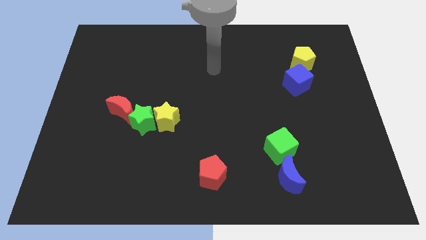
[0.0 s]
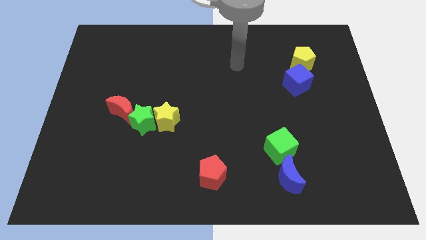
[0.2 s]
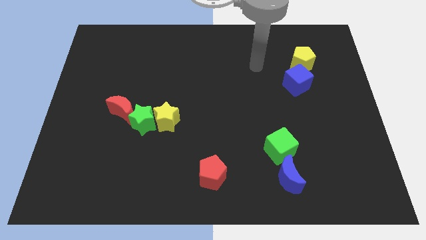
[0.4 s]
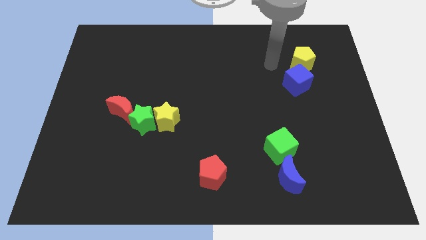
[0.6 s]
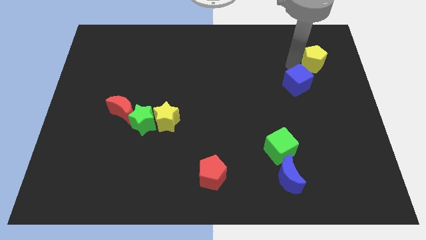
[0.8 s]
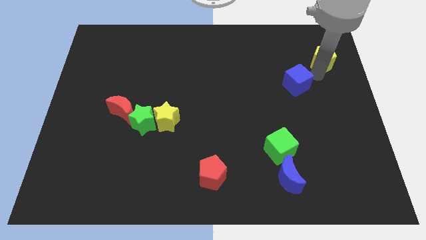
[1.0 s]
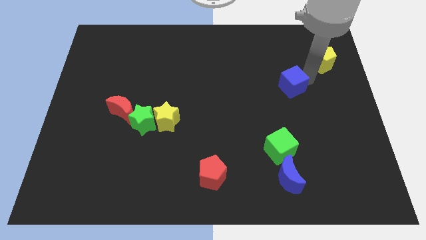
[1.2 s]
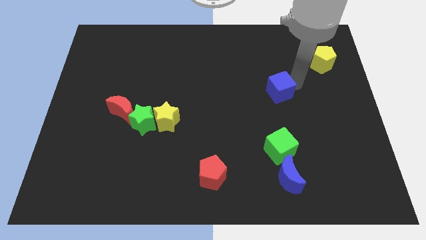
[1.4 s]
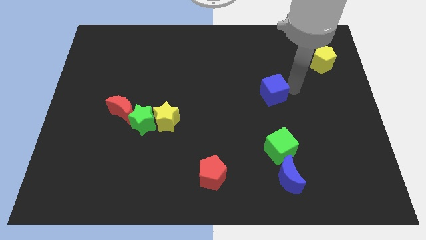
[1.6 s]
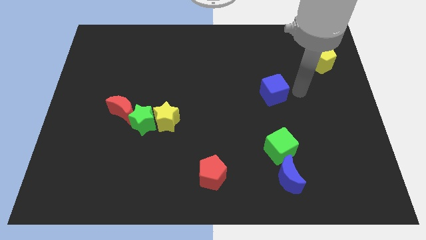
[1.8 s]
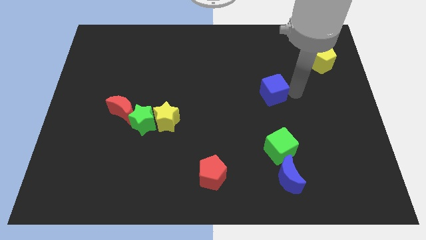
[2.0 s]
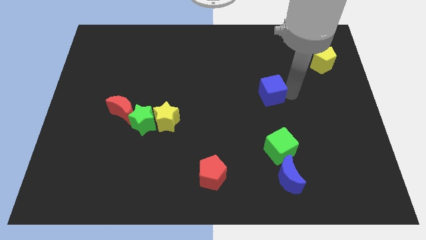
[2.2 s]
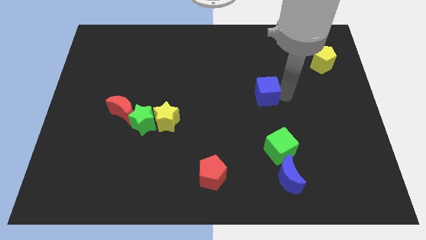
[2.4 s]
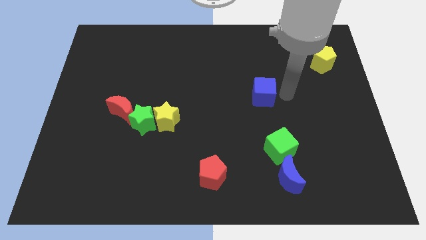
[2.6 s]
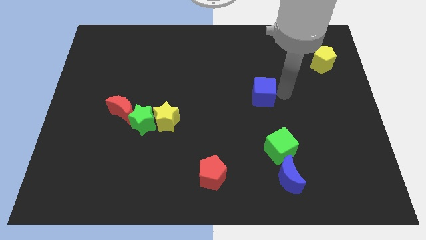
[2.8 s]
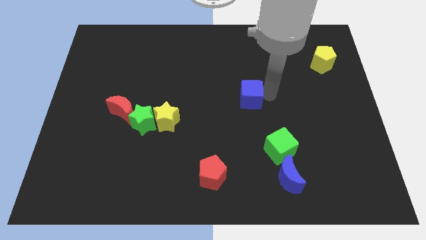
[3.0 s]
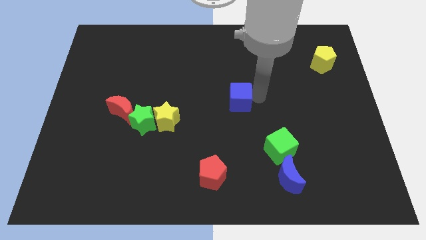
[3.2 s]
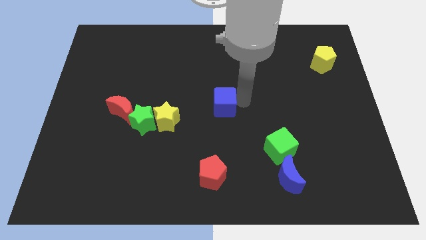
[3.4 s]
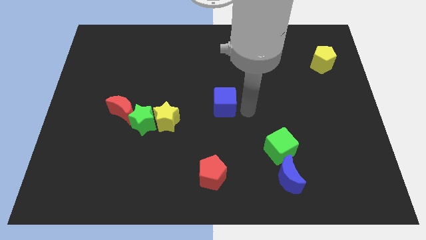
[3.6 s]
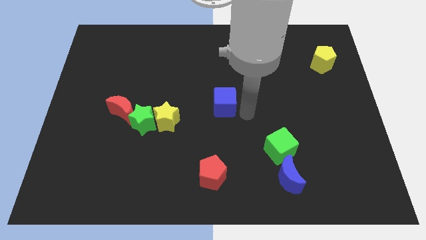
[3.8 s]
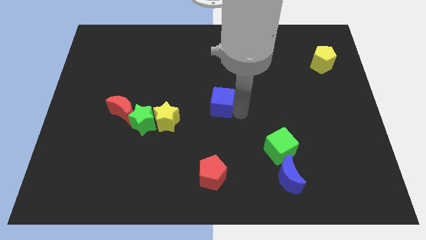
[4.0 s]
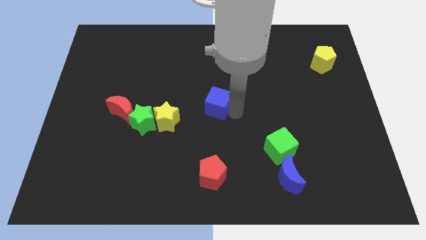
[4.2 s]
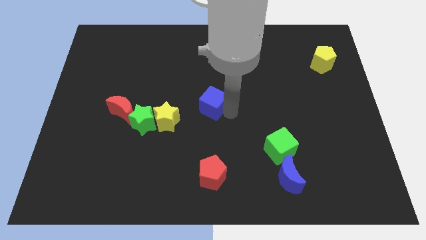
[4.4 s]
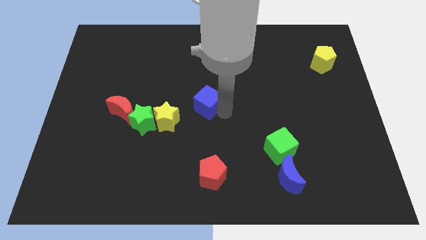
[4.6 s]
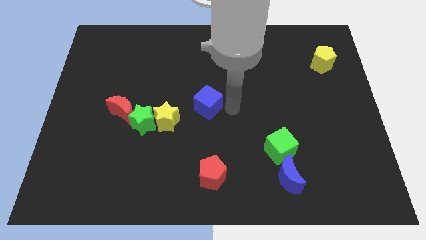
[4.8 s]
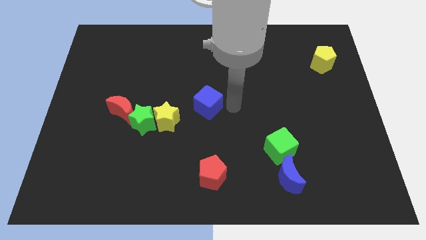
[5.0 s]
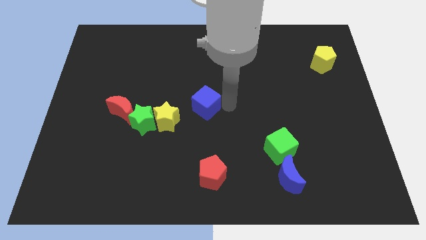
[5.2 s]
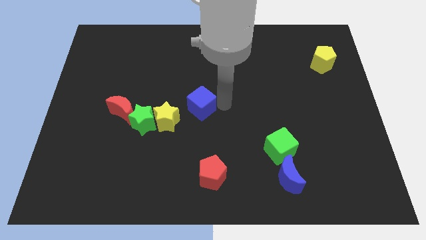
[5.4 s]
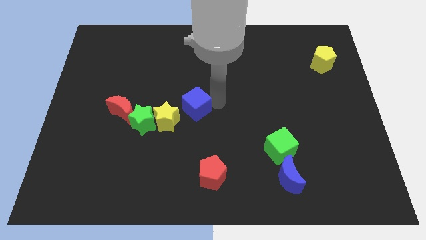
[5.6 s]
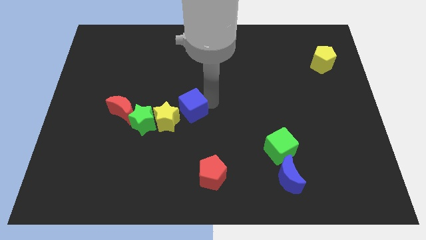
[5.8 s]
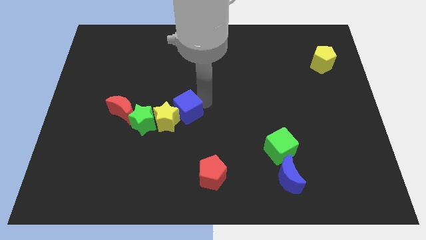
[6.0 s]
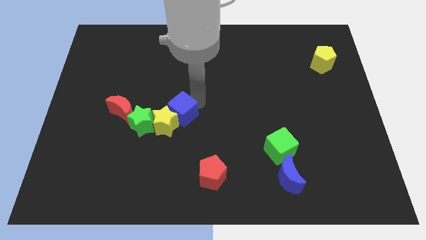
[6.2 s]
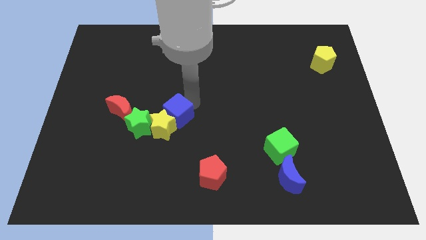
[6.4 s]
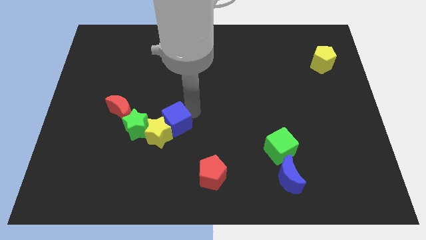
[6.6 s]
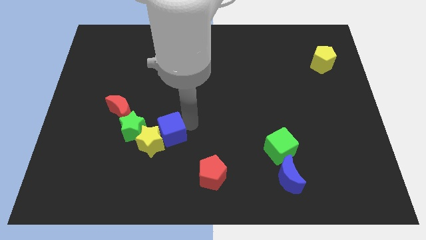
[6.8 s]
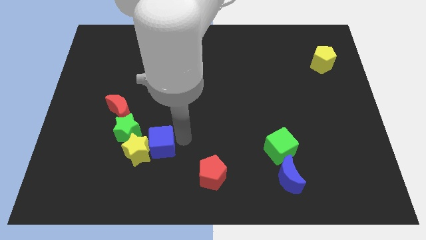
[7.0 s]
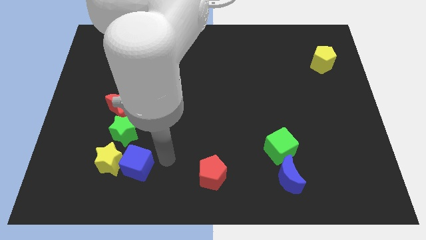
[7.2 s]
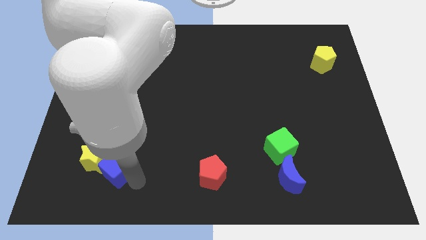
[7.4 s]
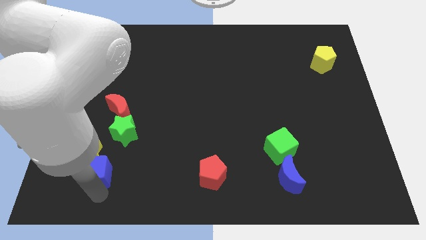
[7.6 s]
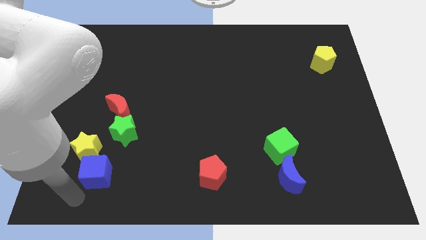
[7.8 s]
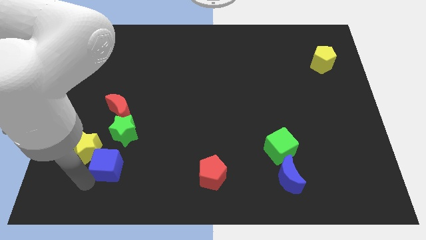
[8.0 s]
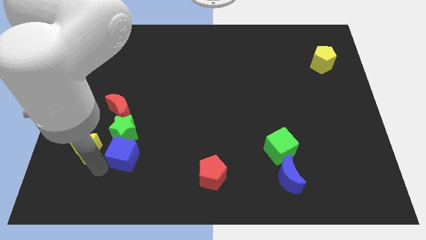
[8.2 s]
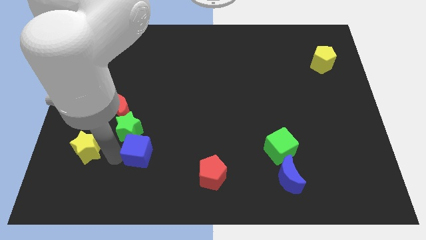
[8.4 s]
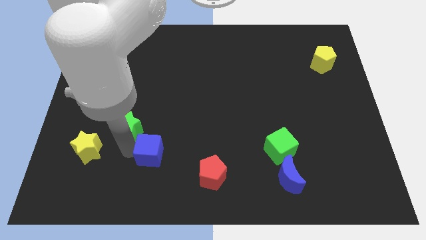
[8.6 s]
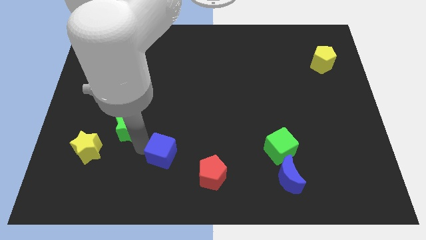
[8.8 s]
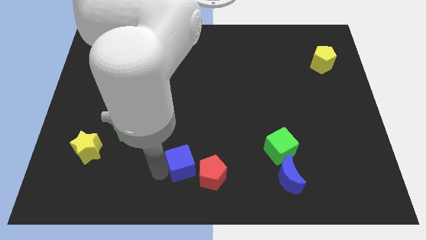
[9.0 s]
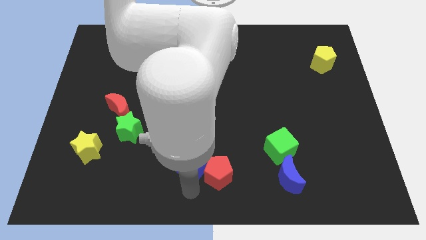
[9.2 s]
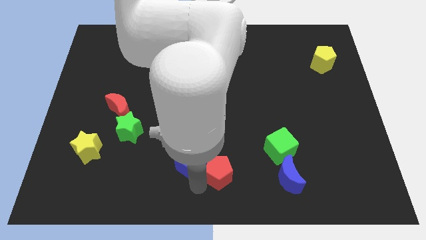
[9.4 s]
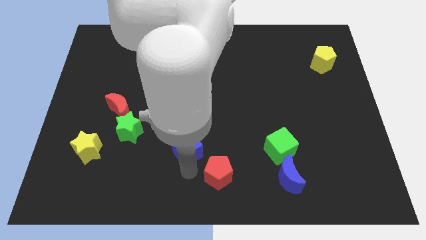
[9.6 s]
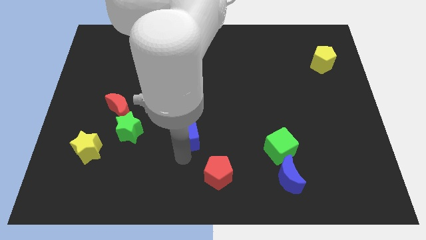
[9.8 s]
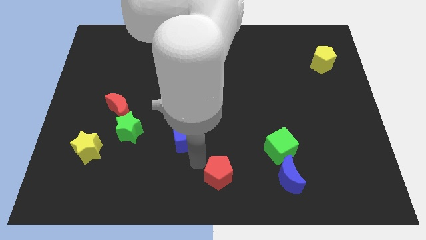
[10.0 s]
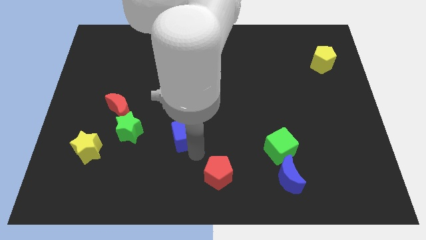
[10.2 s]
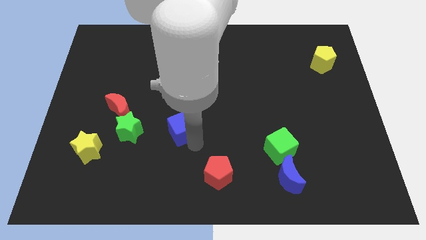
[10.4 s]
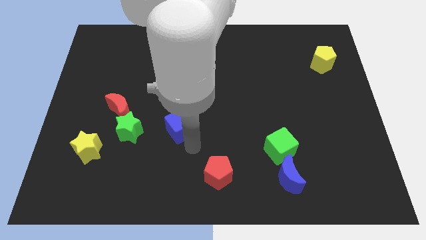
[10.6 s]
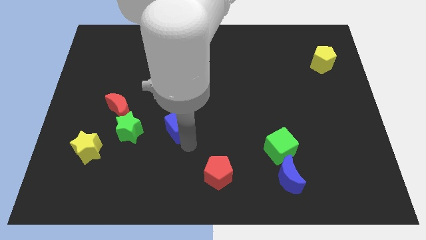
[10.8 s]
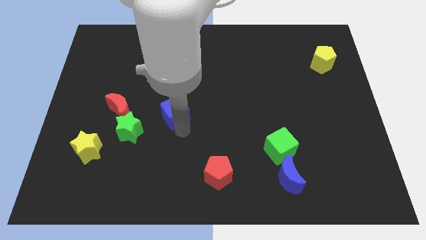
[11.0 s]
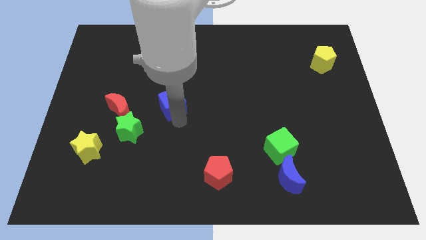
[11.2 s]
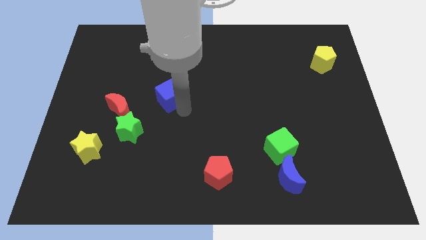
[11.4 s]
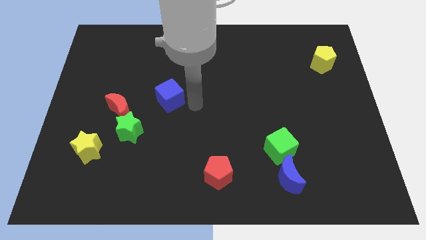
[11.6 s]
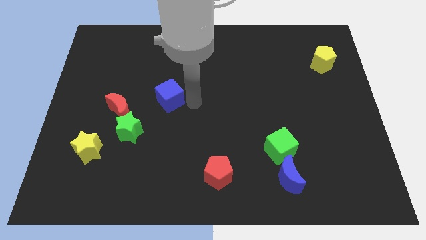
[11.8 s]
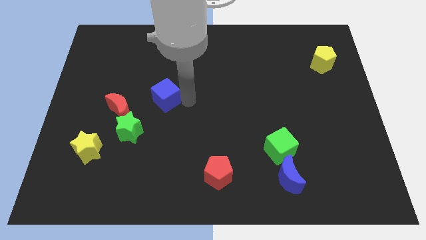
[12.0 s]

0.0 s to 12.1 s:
push the blue cube to the top right of the red moon
